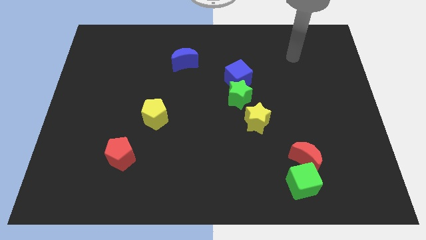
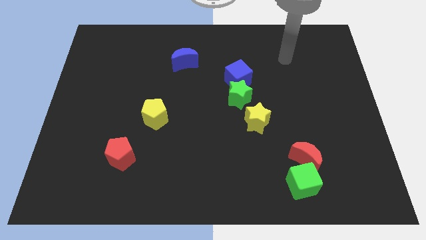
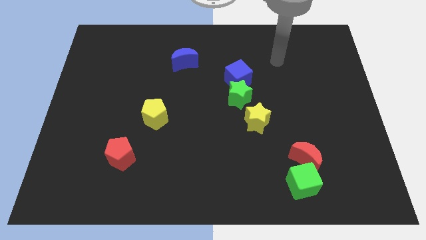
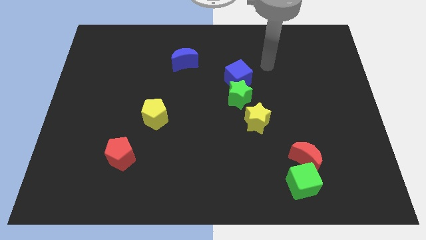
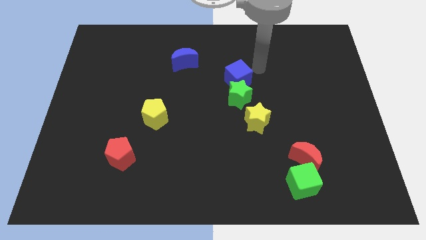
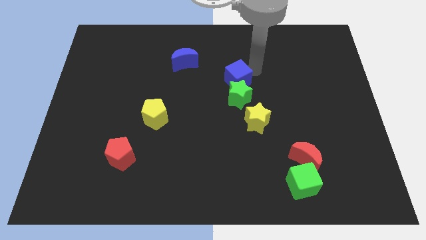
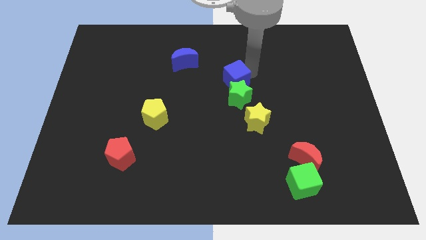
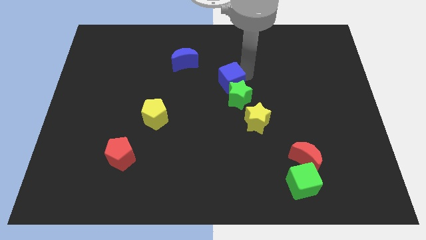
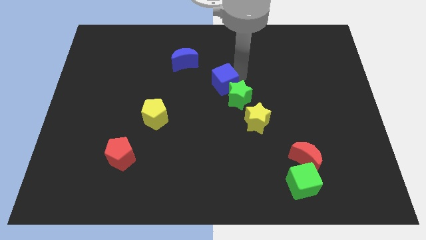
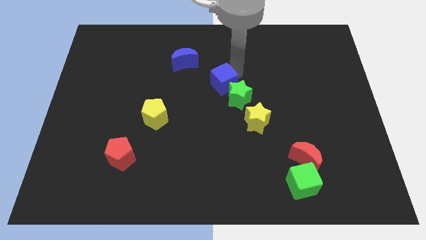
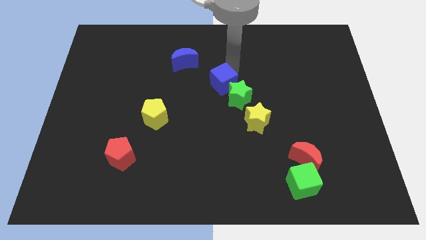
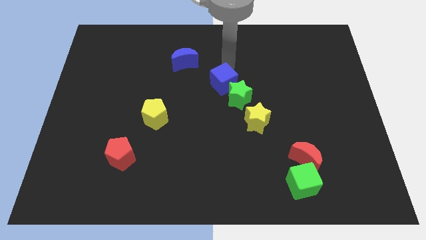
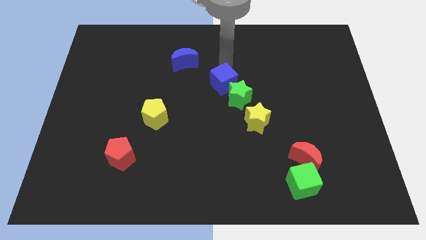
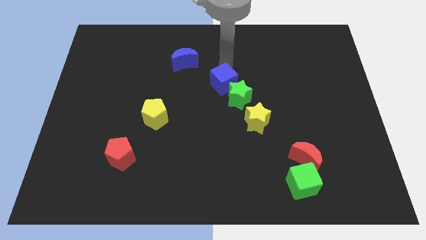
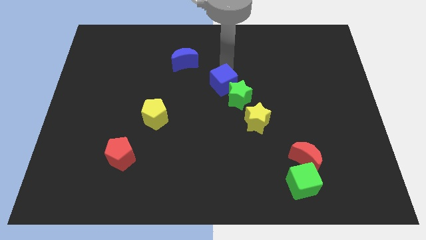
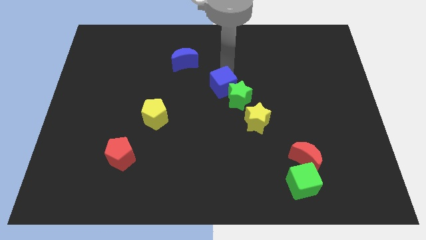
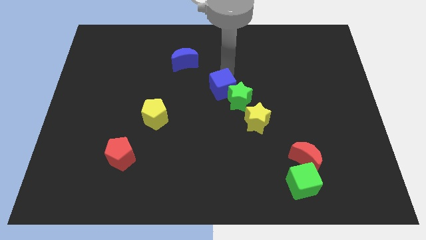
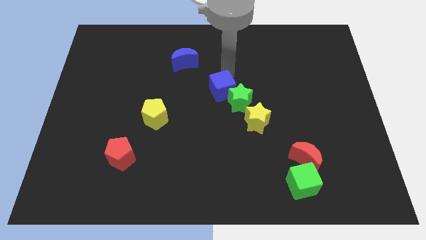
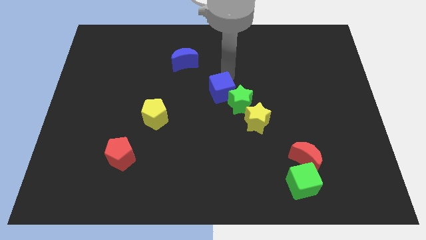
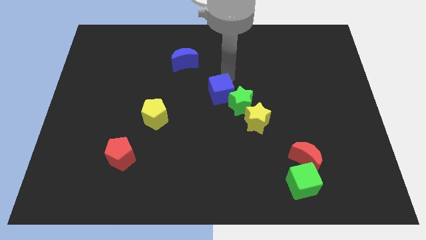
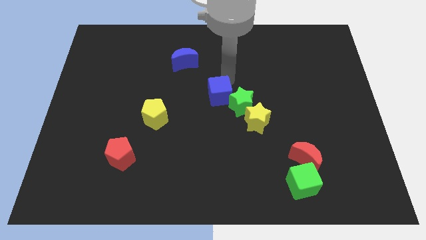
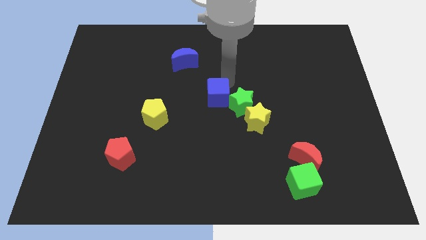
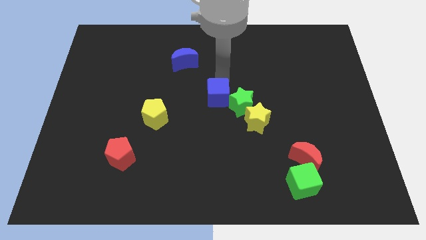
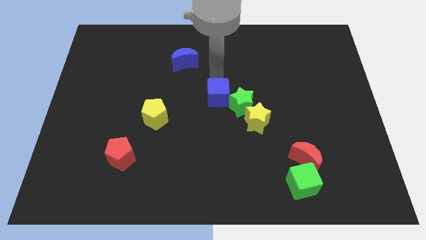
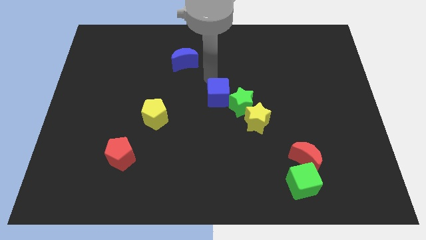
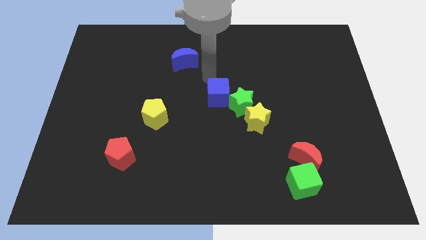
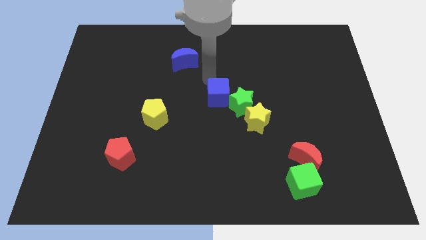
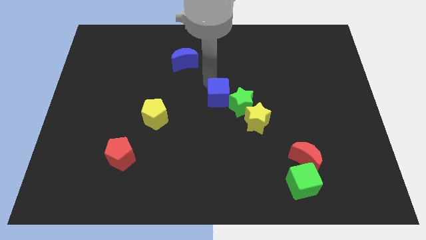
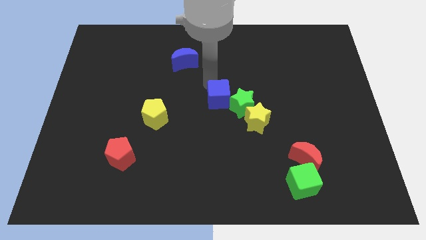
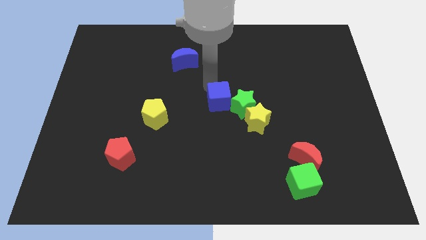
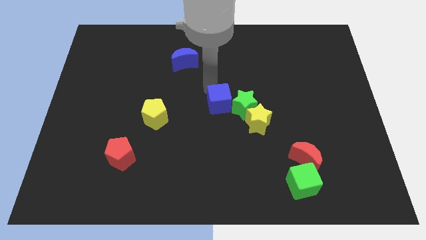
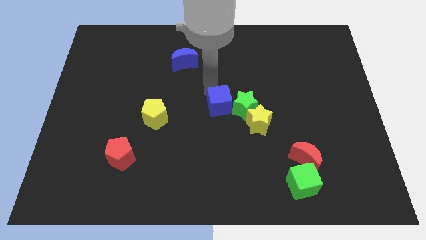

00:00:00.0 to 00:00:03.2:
push the blue cube a little down

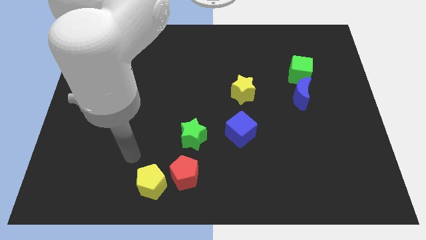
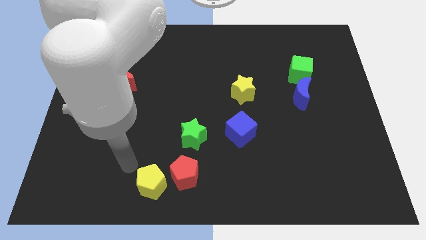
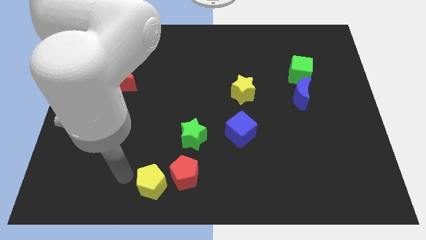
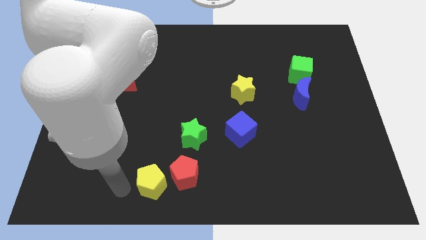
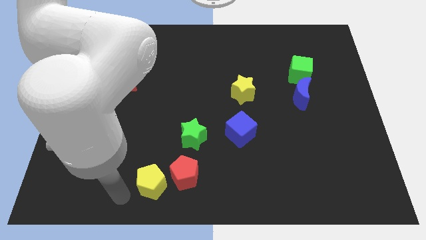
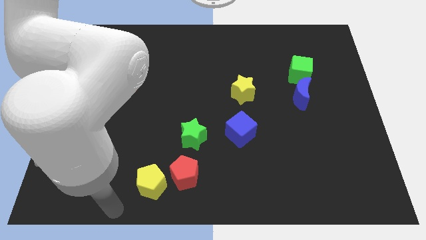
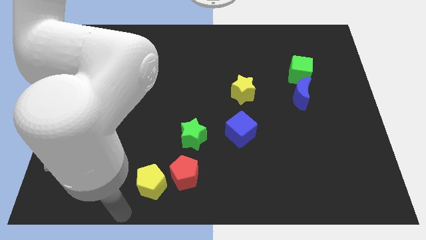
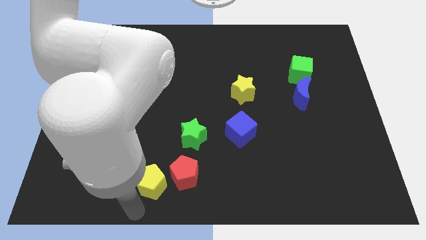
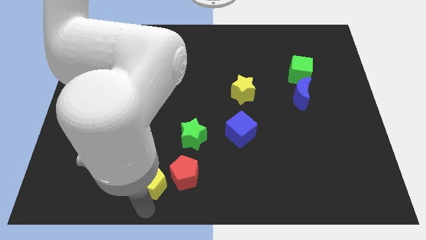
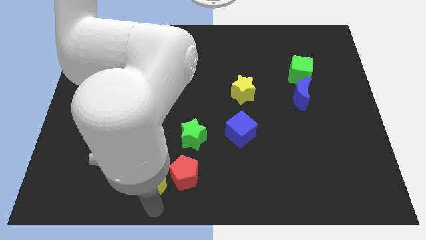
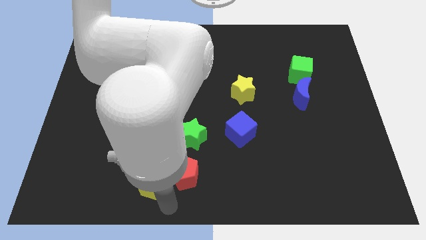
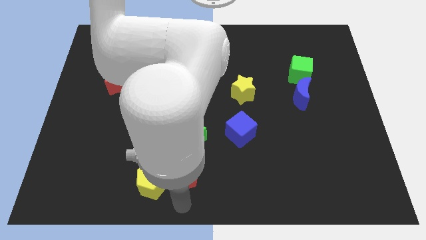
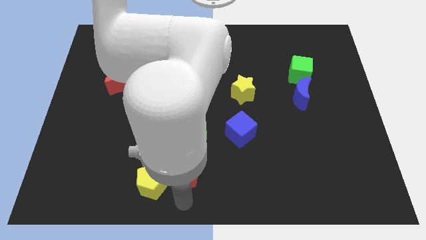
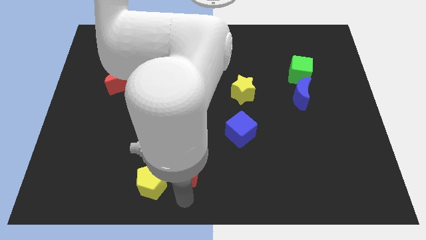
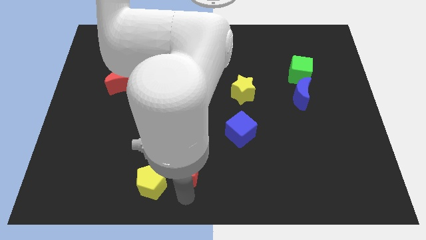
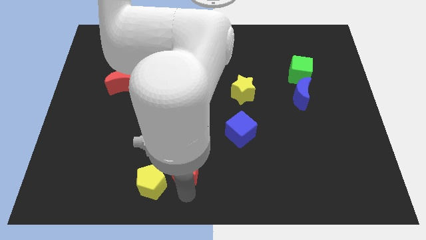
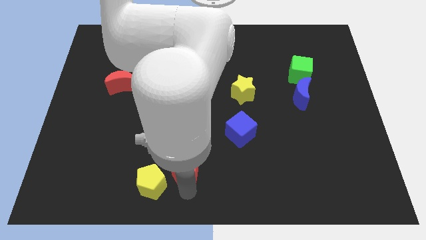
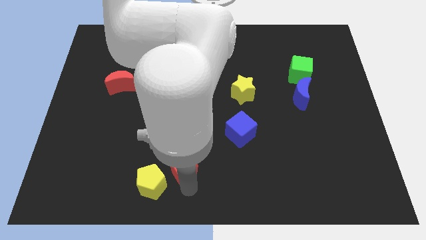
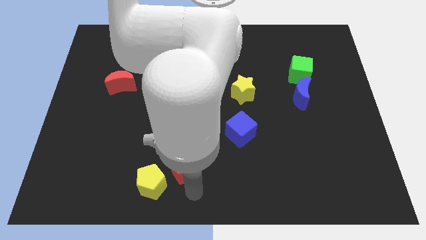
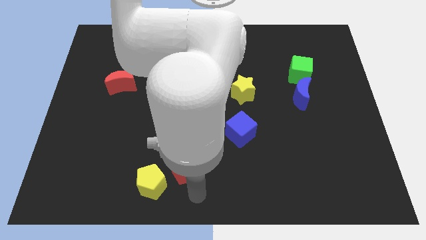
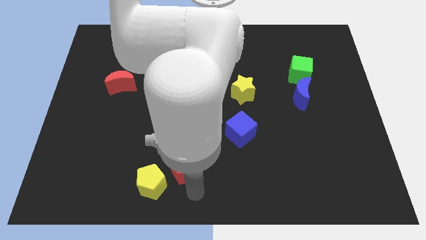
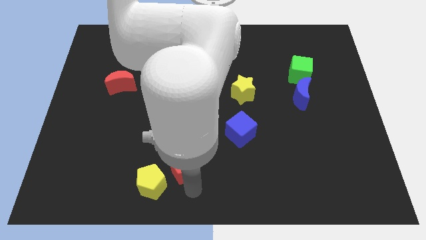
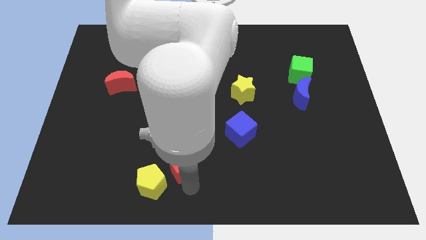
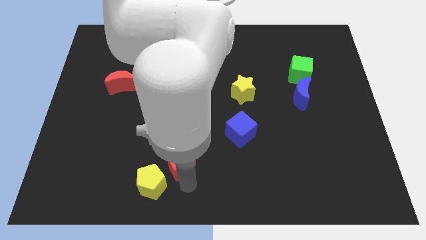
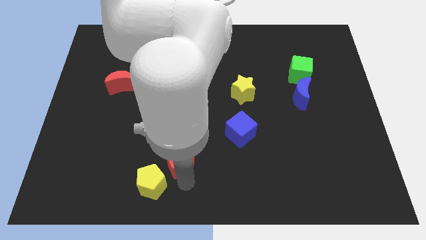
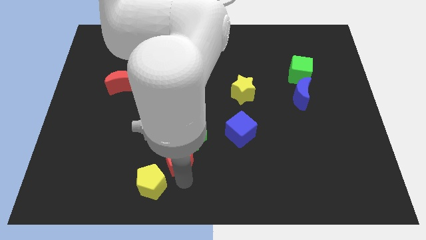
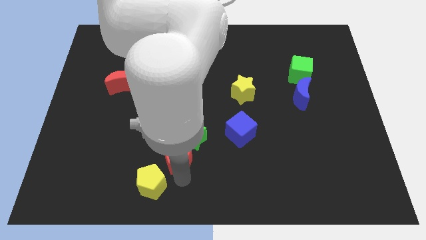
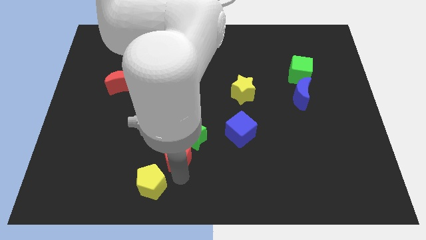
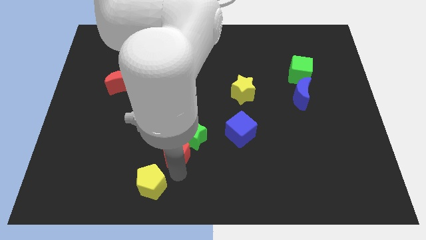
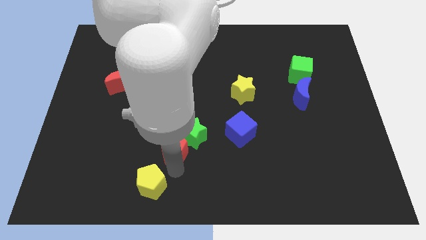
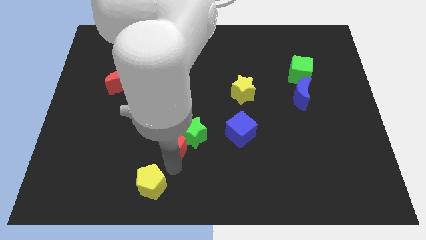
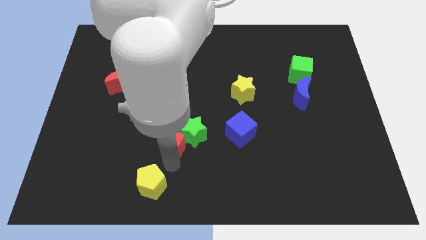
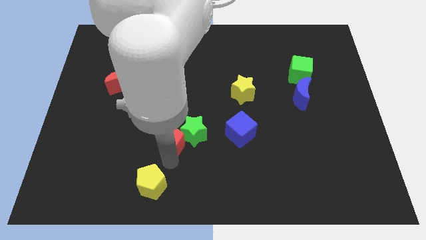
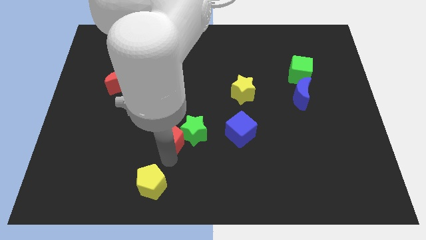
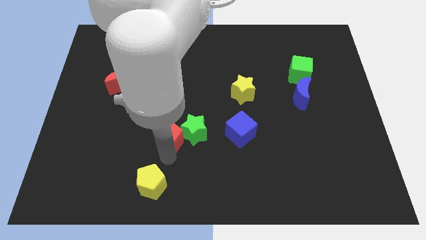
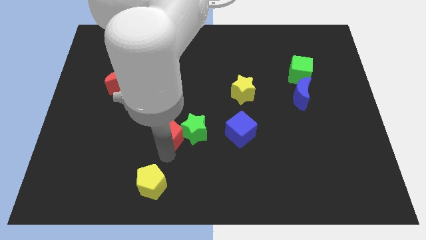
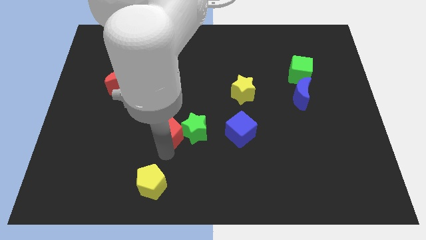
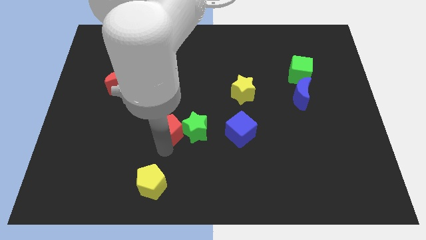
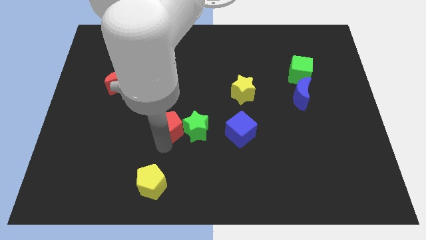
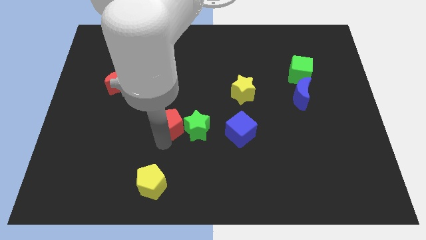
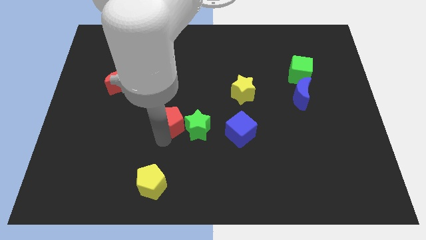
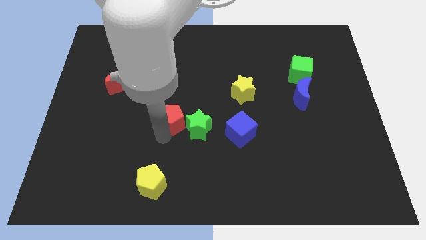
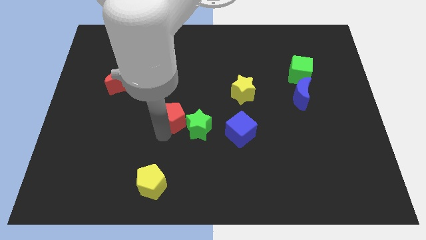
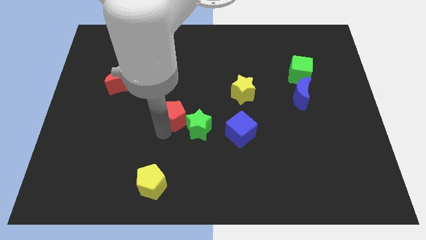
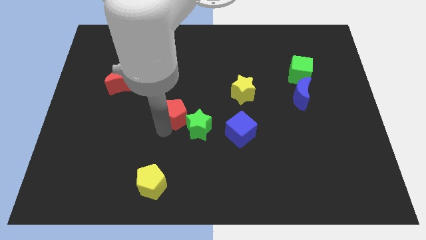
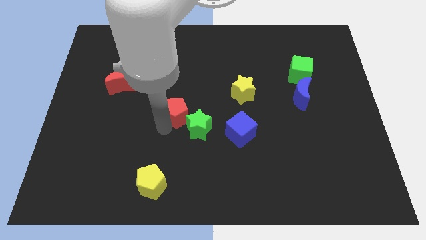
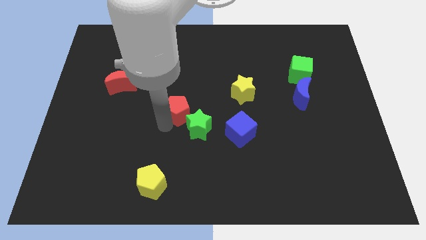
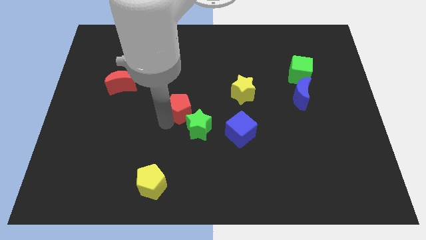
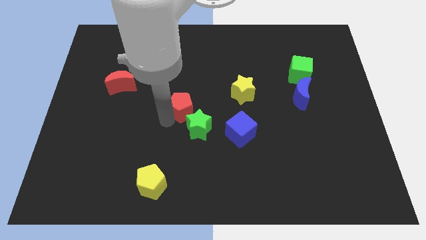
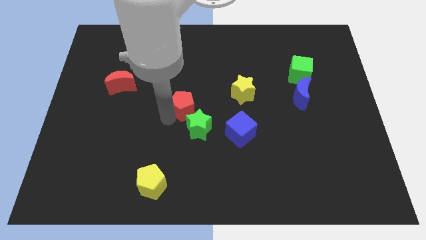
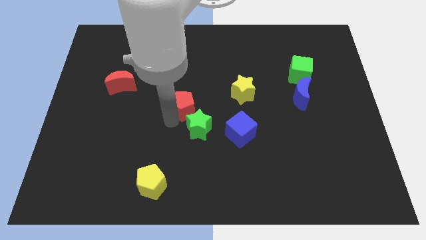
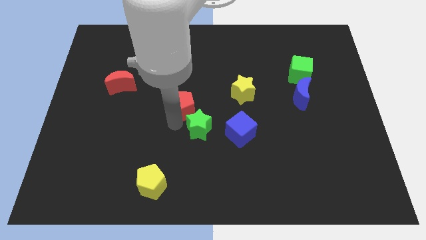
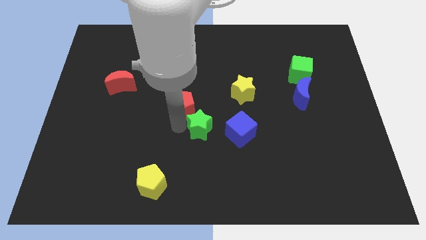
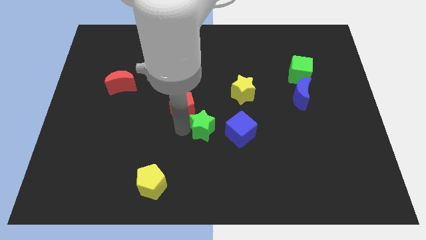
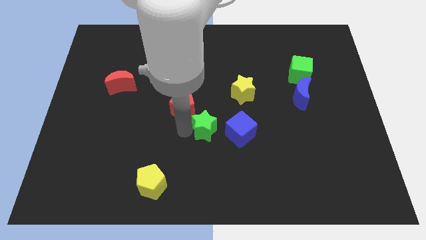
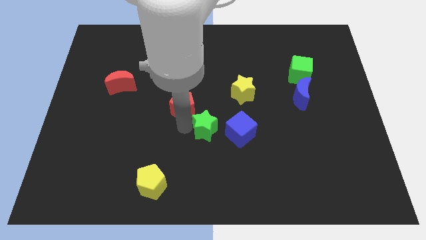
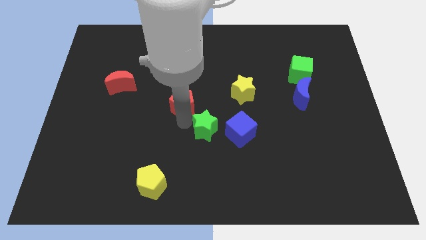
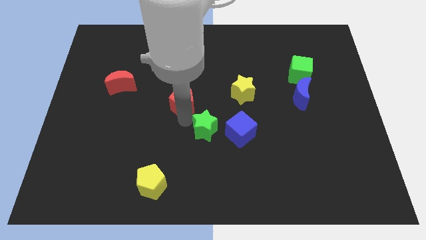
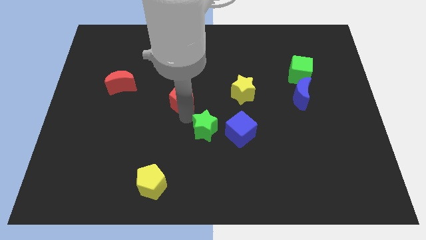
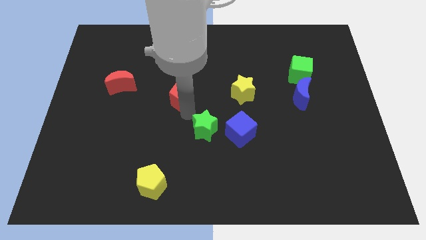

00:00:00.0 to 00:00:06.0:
push the red pentagon upwards
